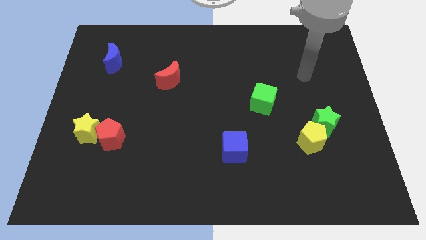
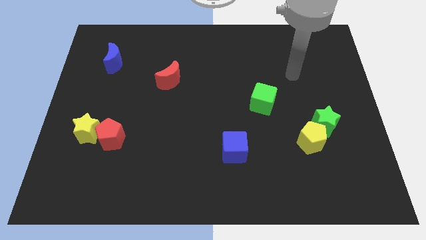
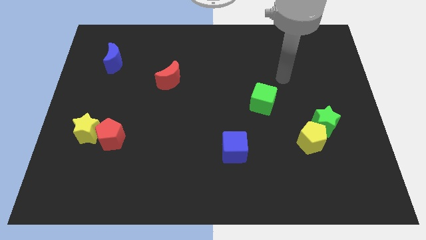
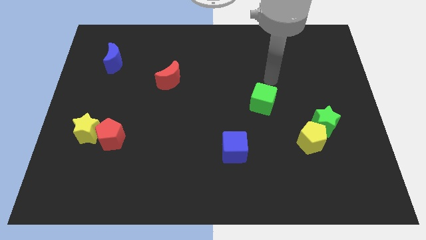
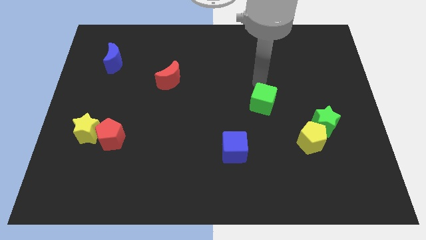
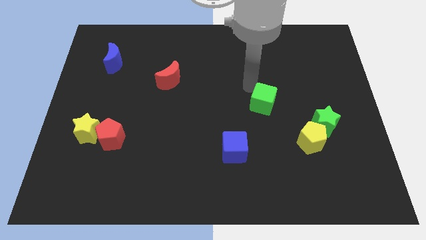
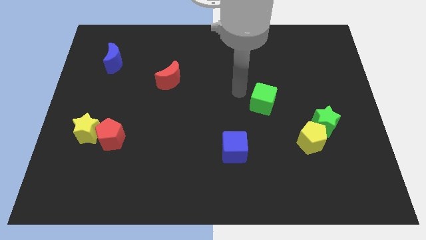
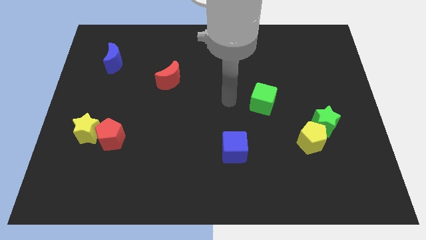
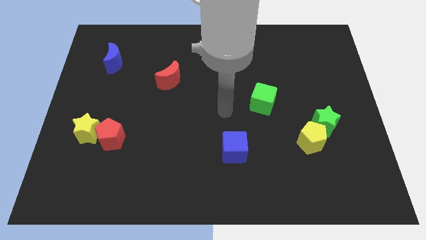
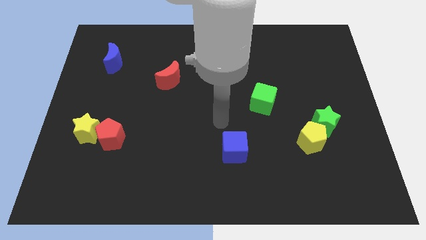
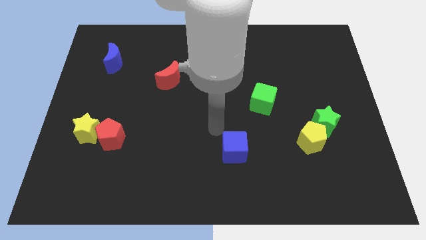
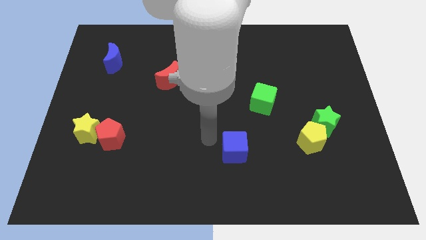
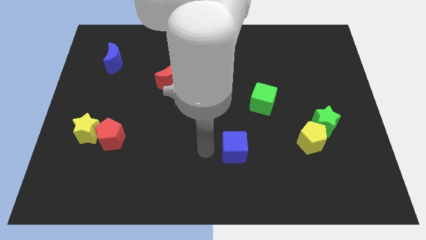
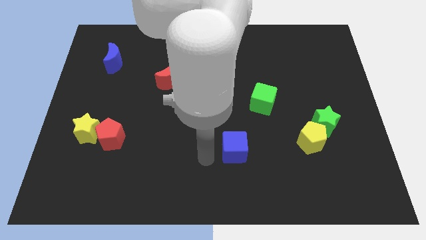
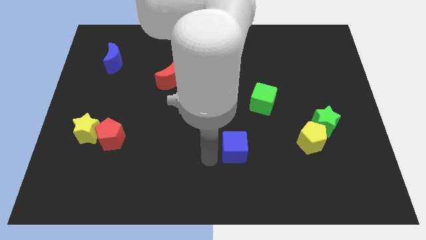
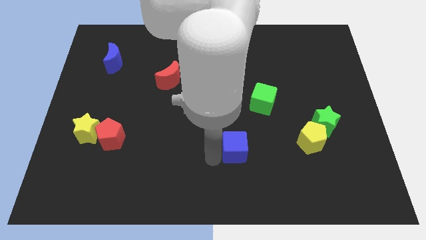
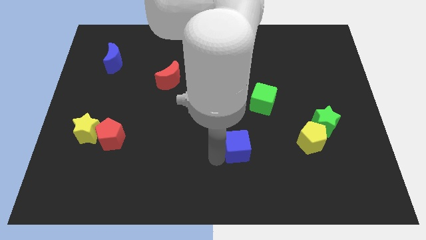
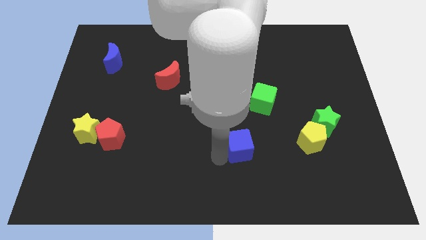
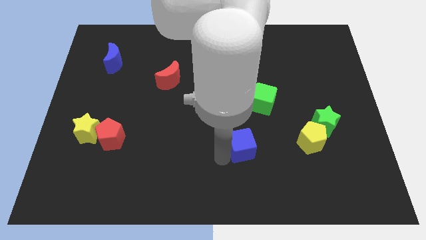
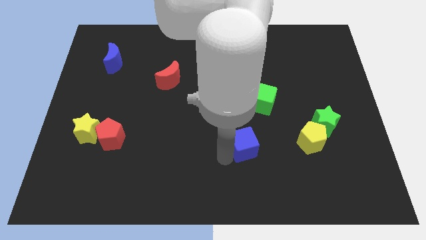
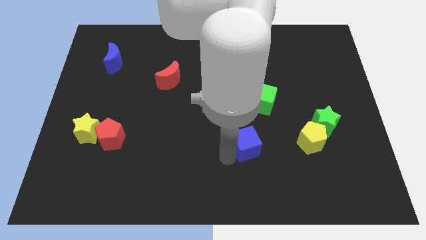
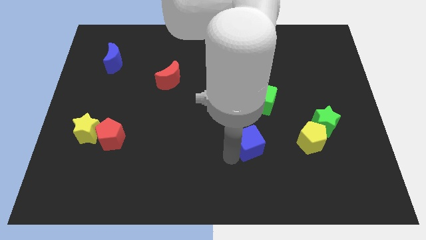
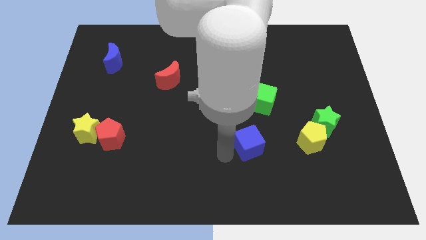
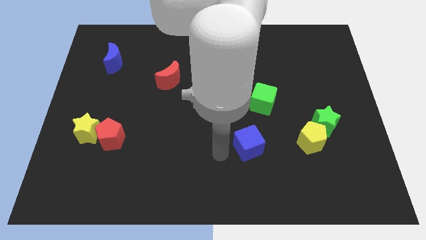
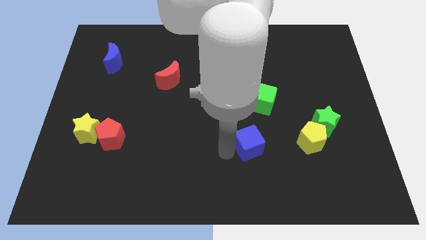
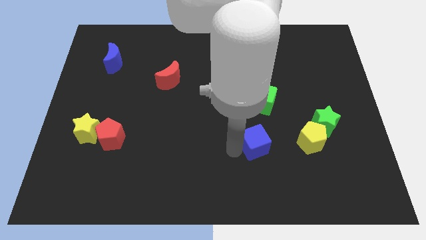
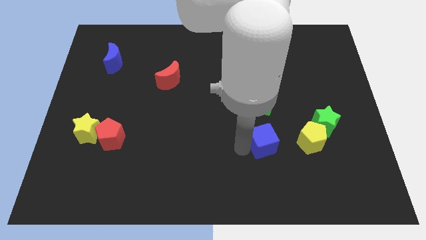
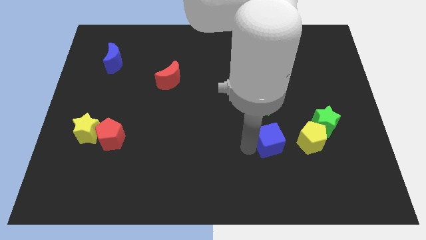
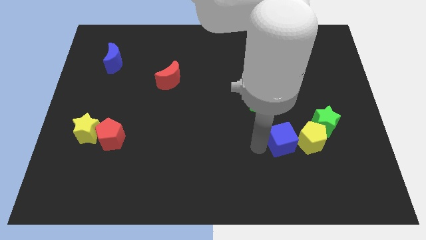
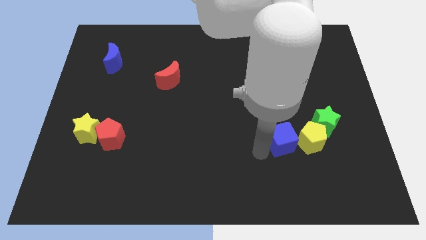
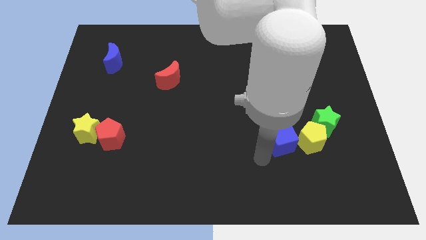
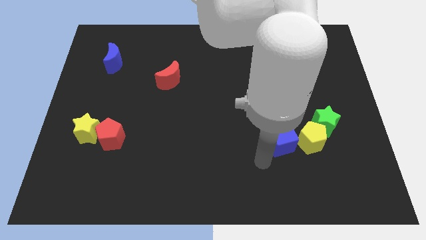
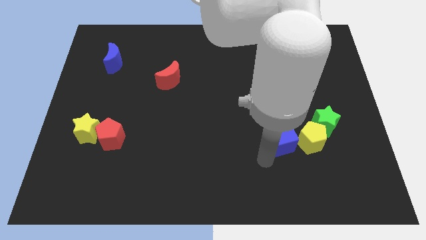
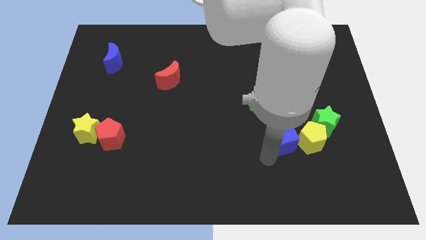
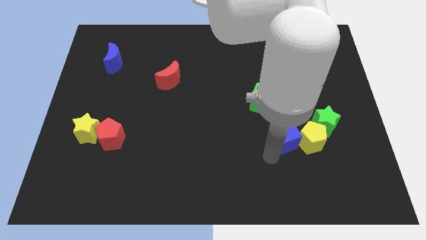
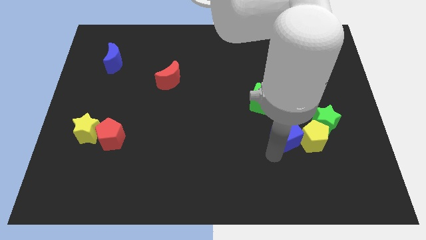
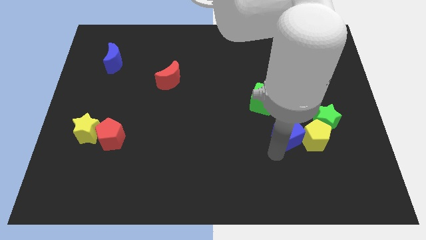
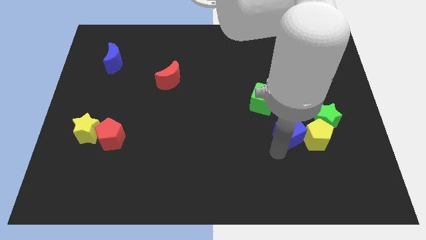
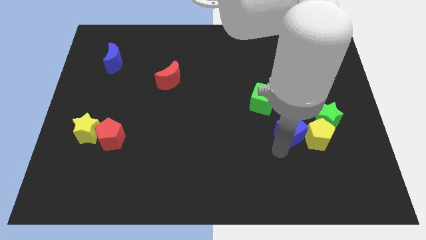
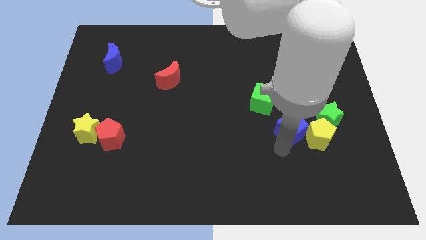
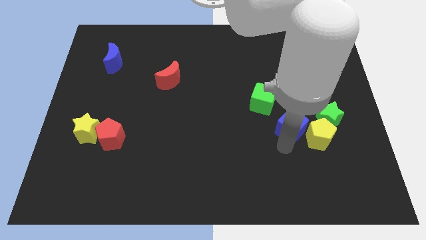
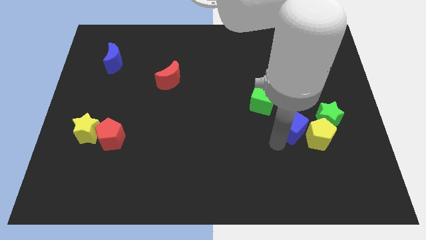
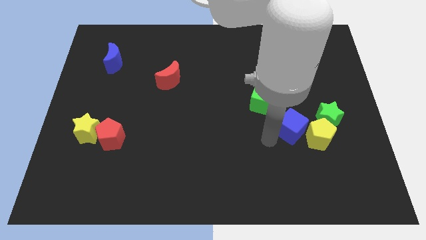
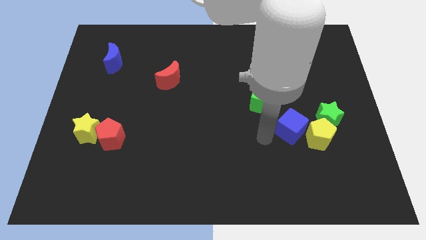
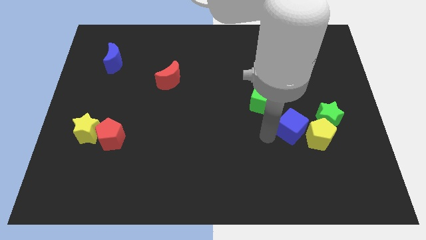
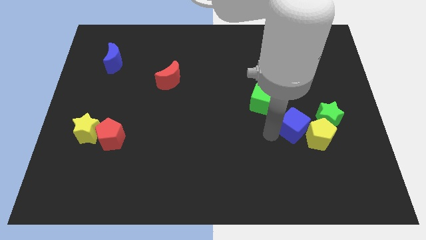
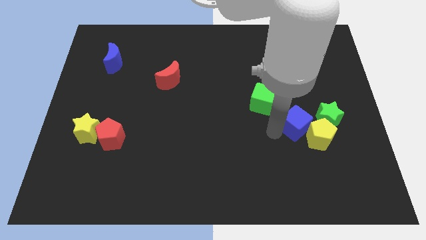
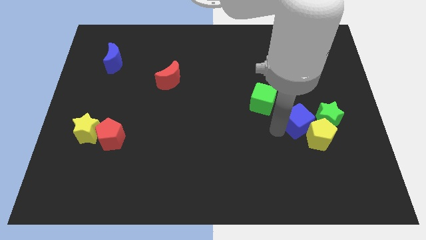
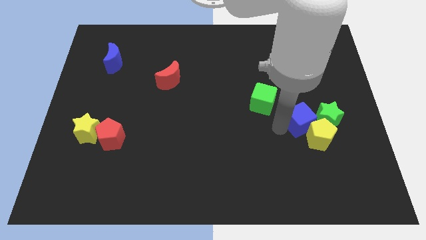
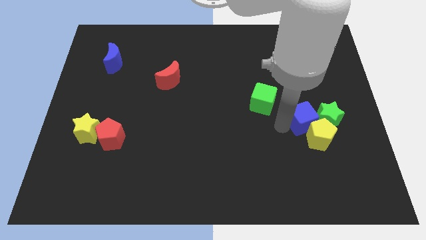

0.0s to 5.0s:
slide the blue cube next to the green star

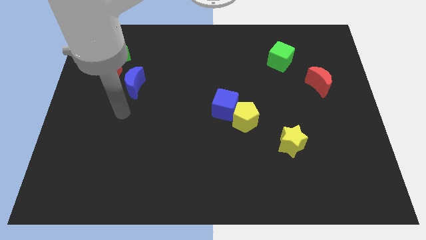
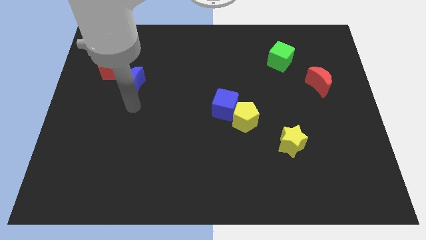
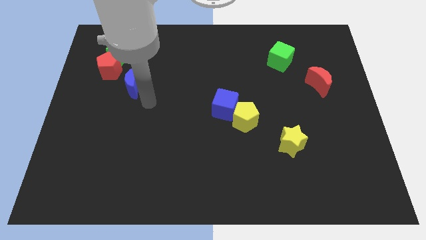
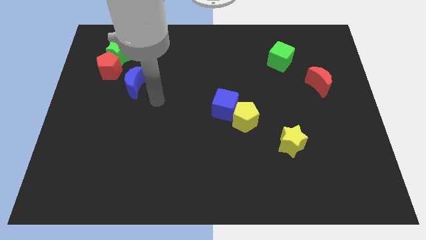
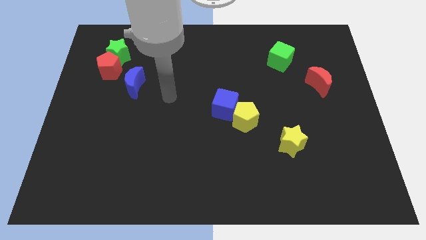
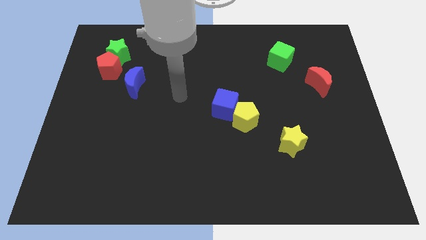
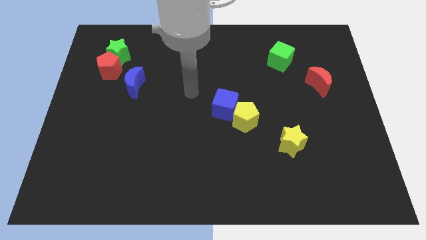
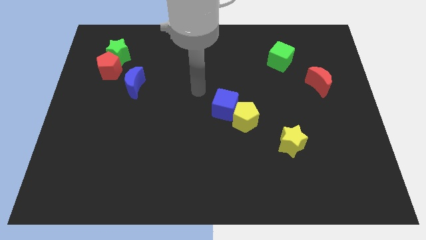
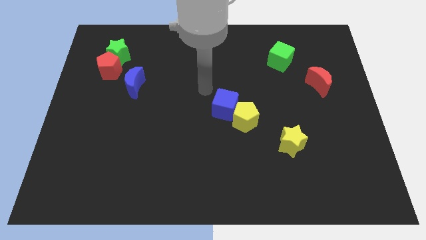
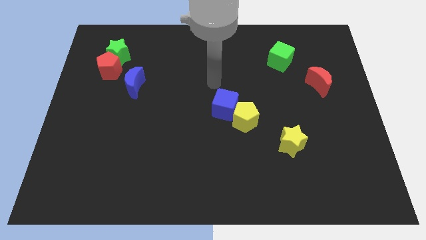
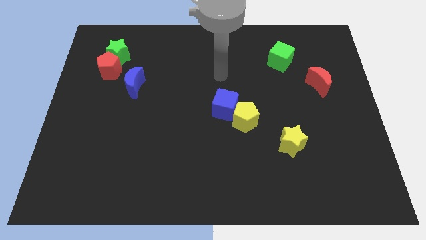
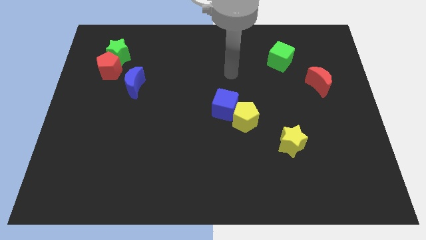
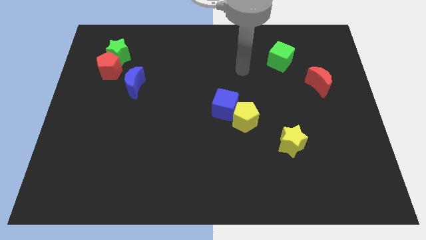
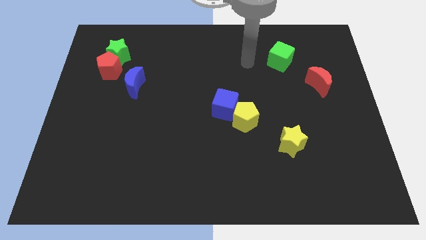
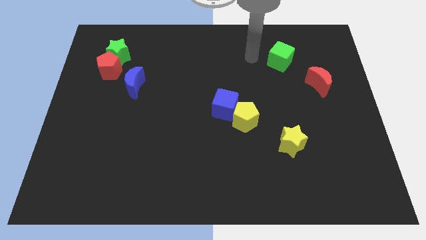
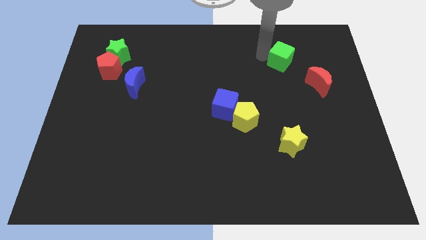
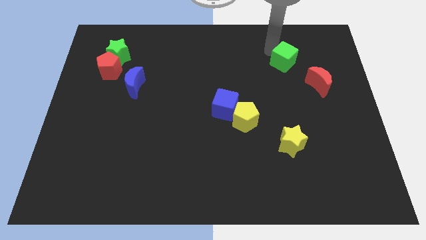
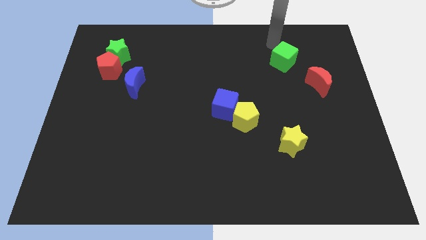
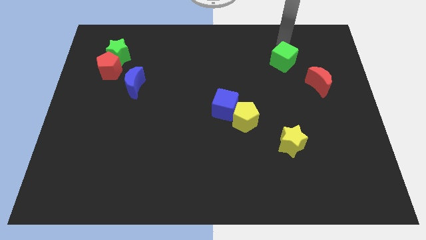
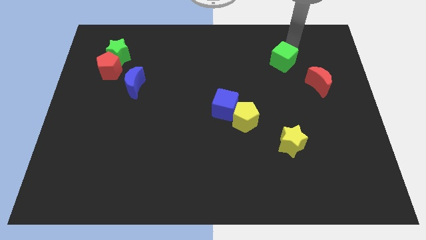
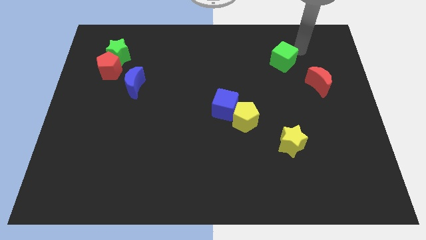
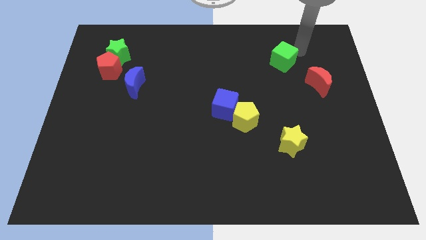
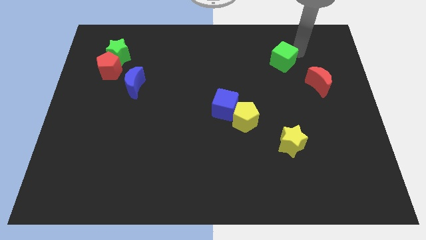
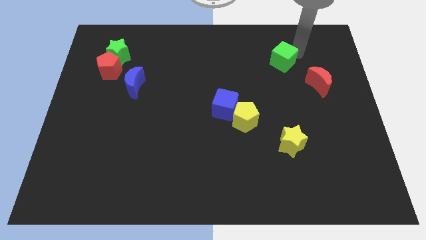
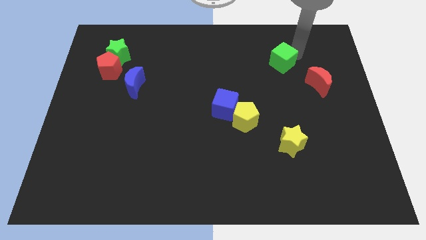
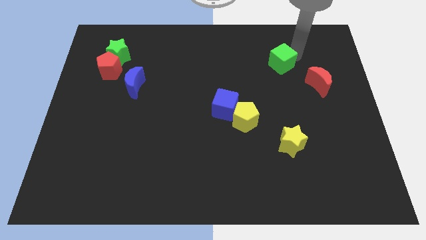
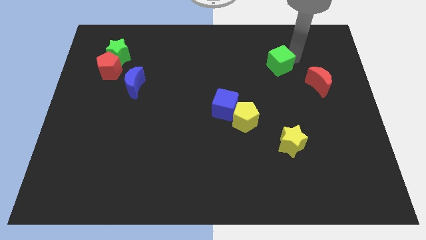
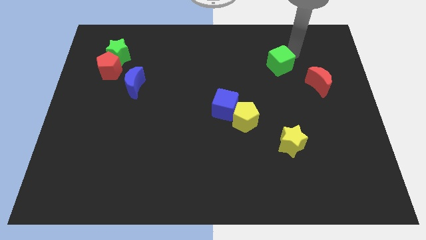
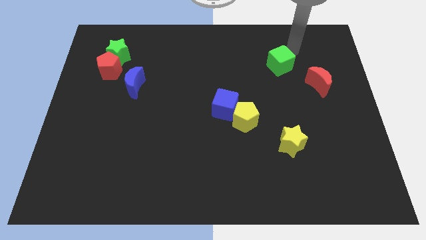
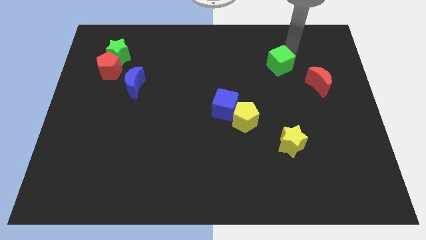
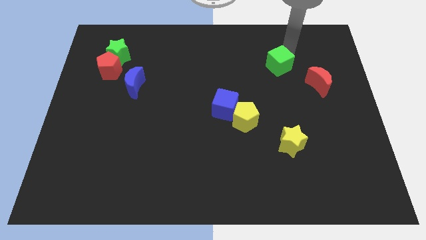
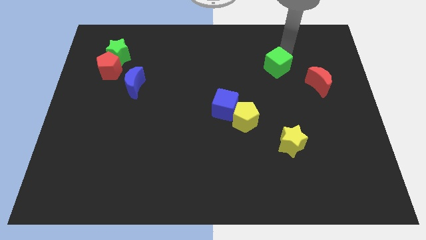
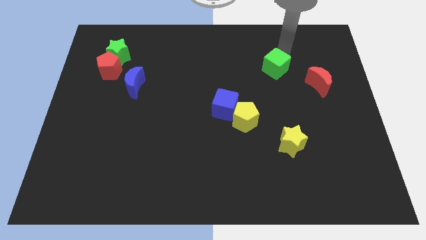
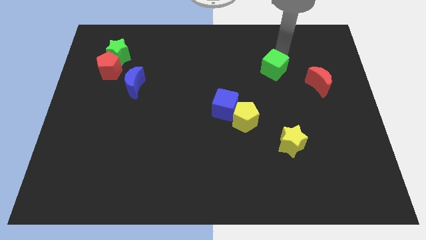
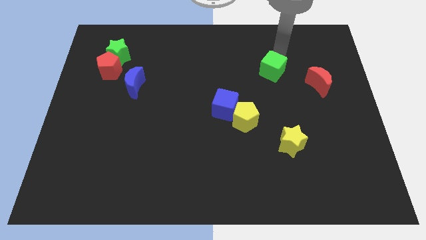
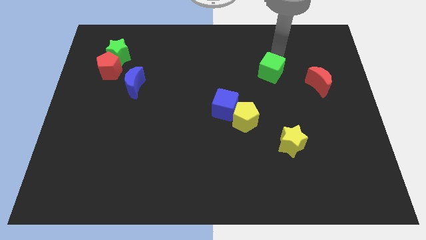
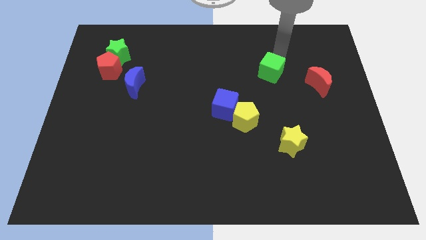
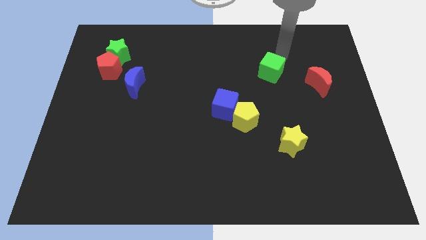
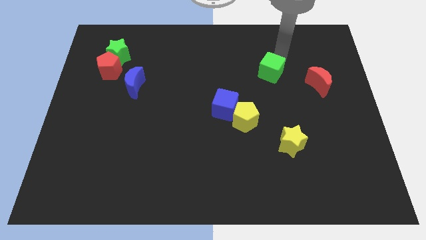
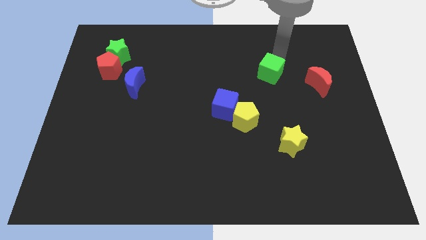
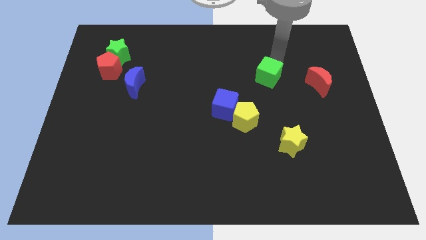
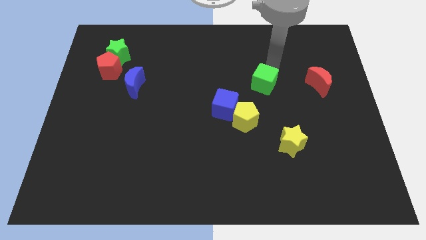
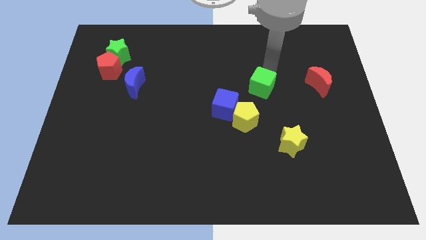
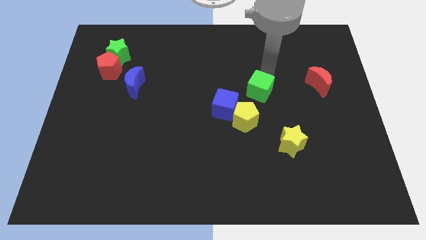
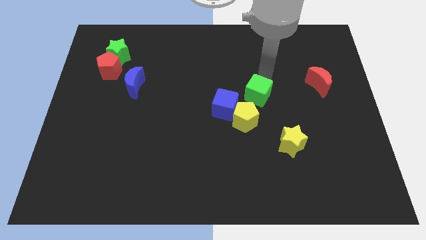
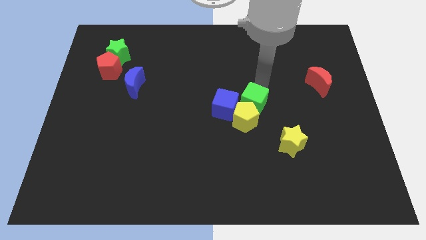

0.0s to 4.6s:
slide the green cube next to the yellow pentagon
